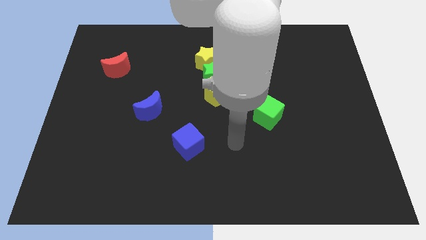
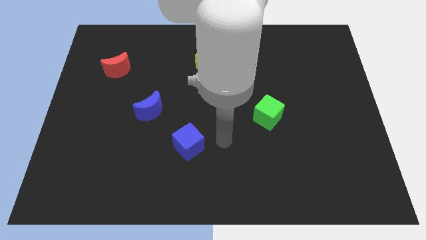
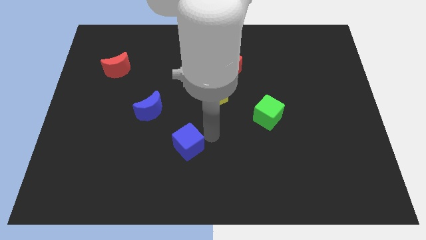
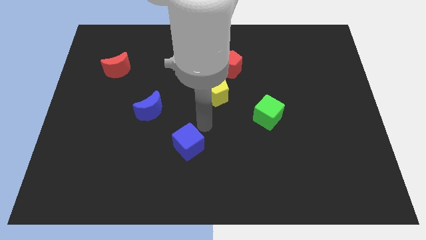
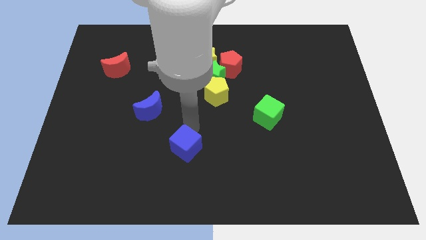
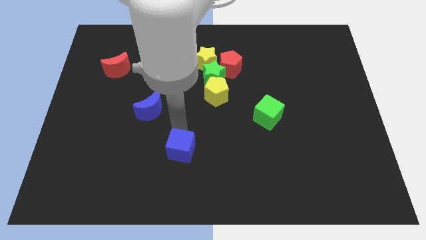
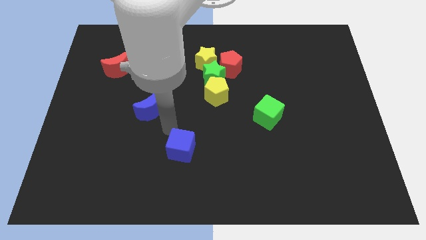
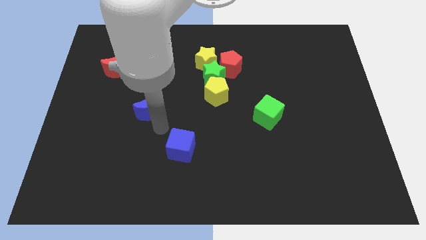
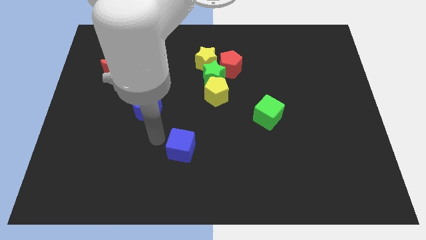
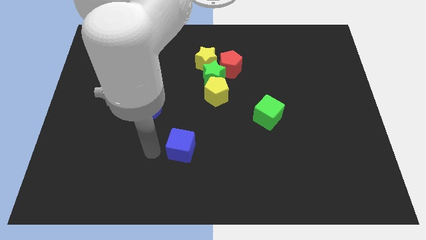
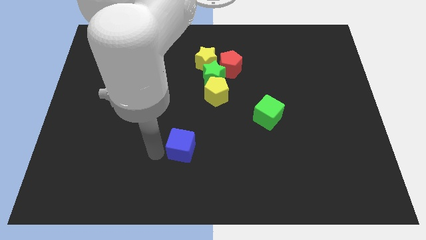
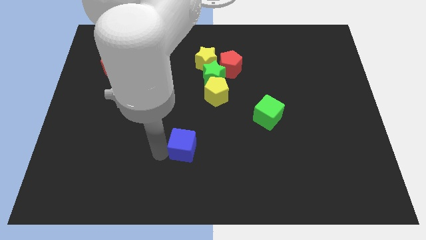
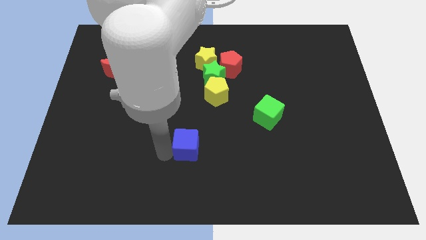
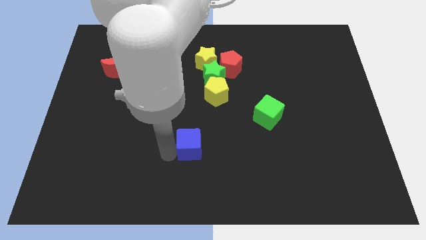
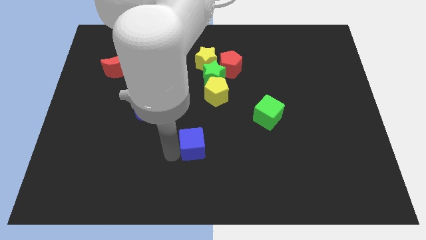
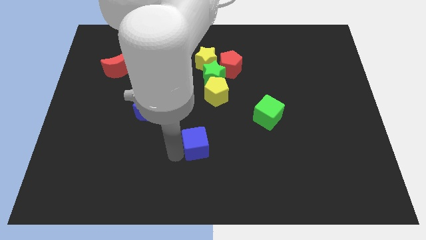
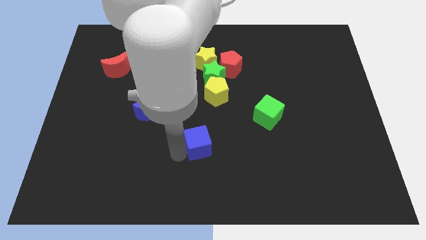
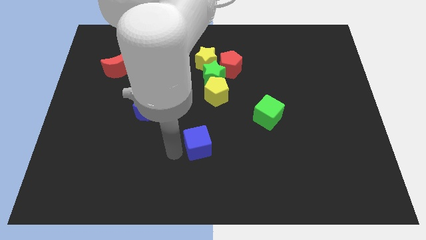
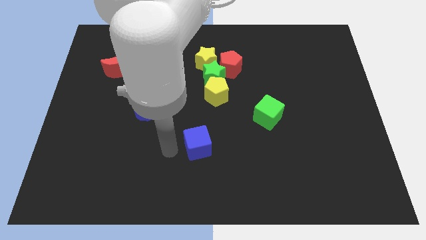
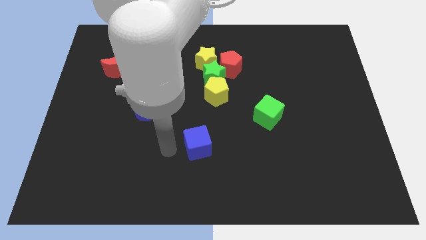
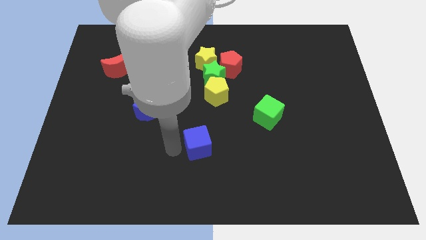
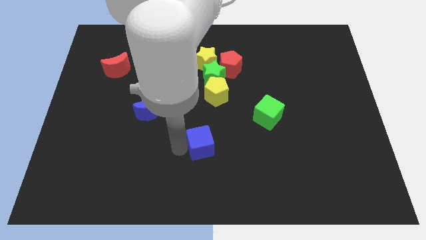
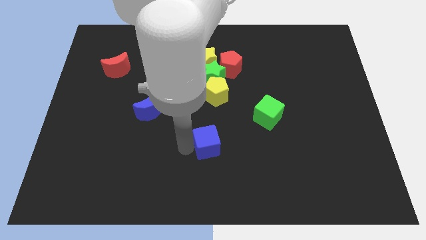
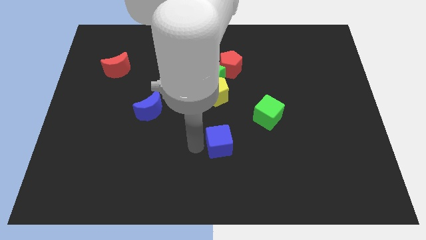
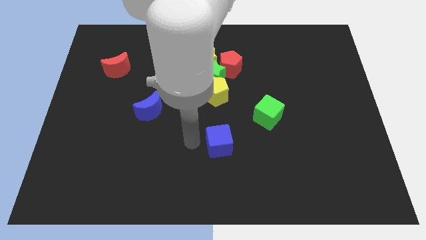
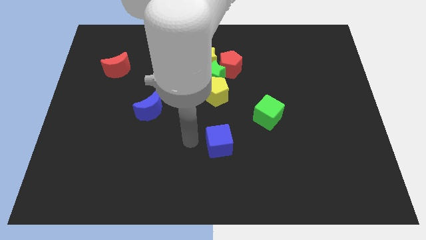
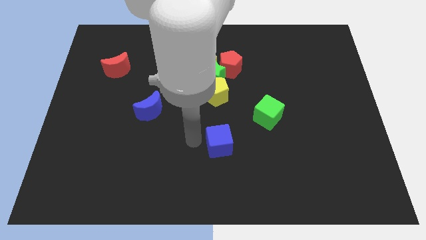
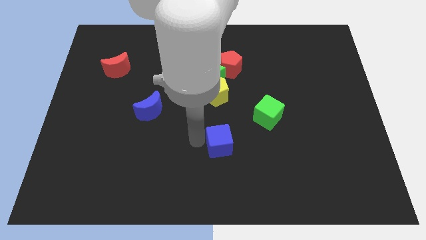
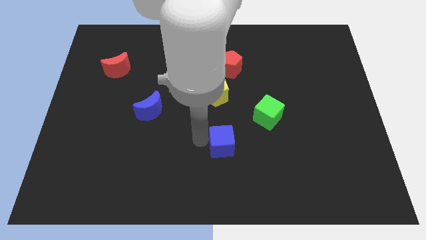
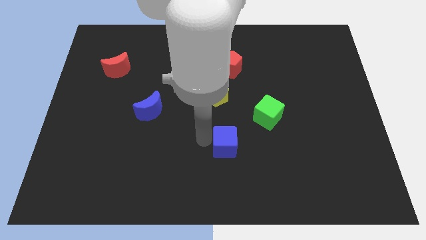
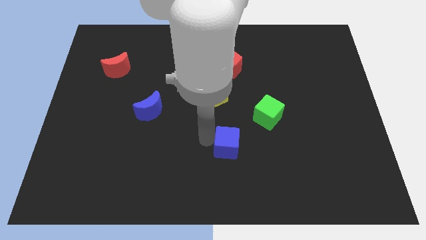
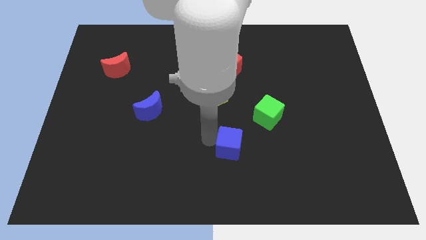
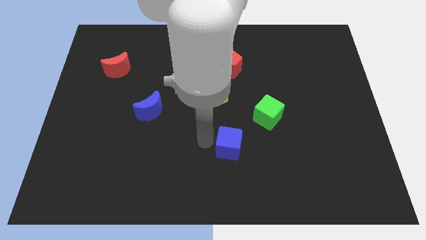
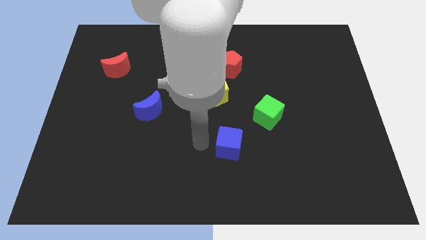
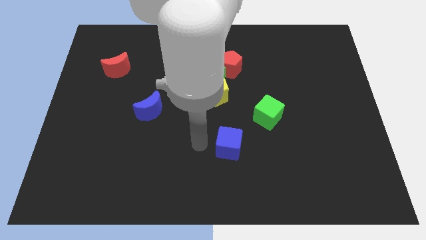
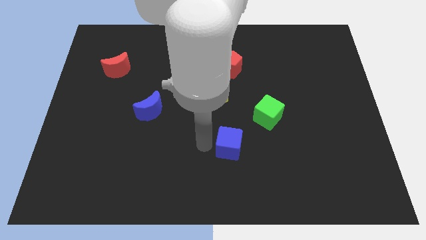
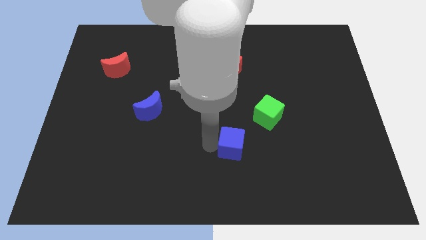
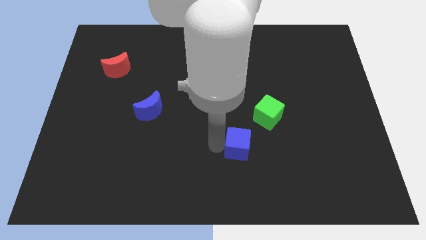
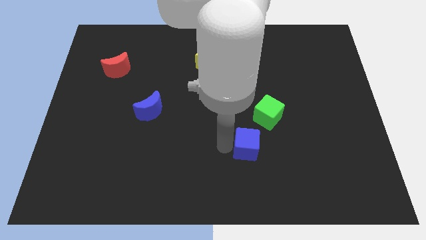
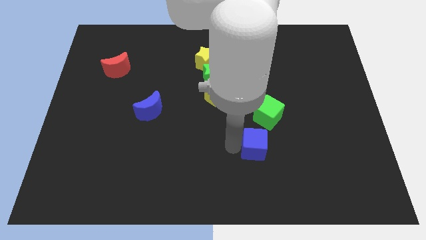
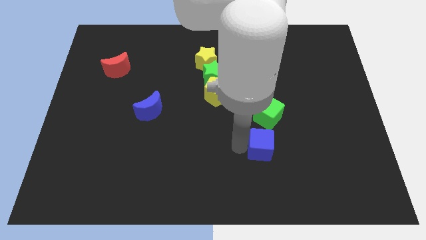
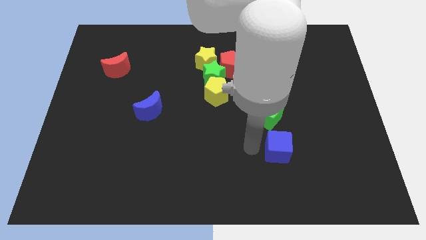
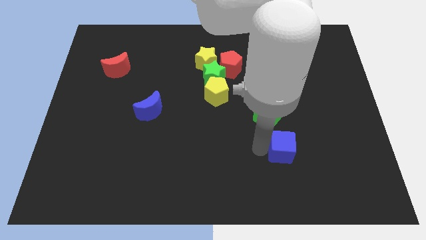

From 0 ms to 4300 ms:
push the blue cube to the right

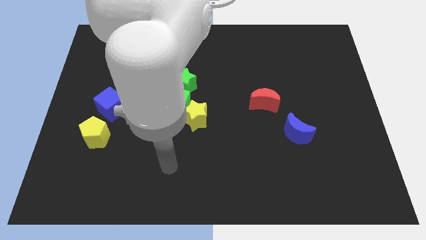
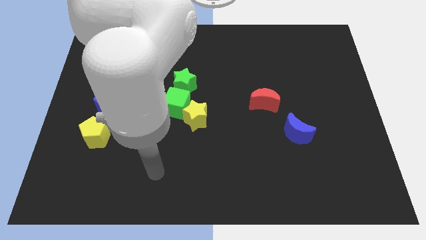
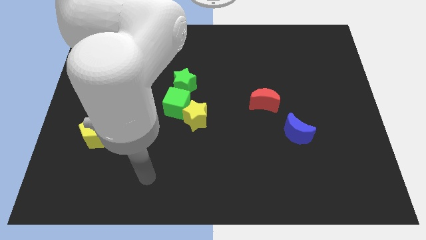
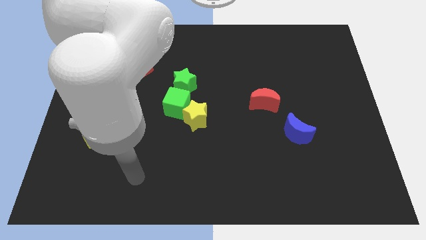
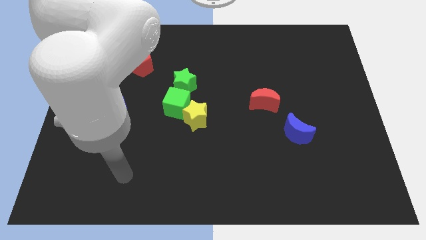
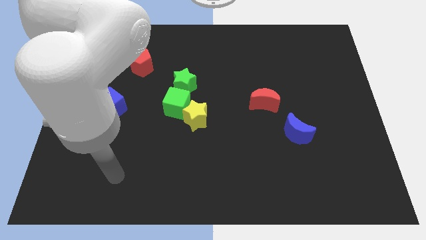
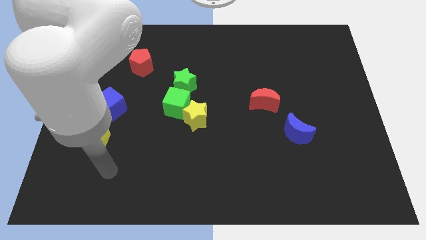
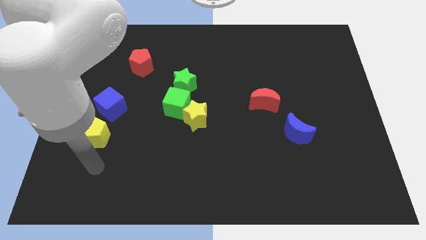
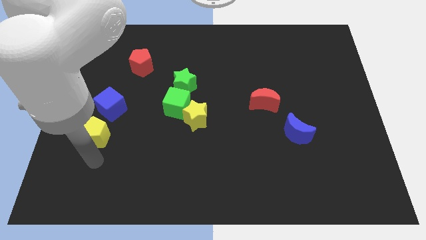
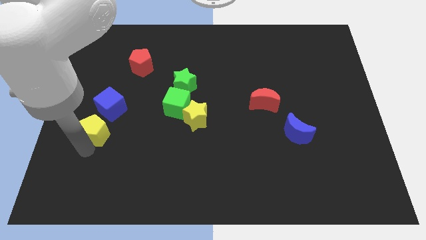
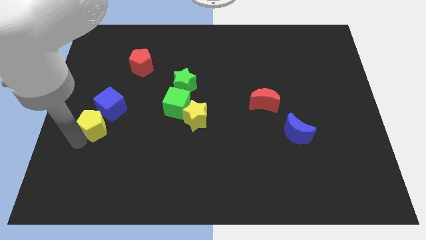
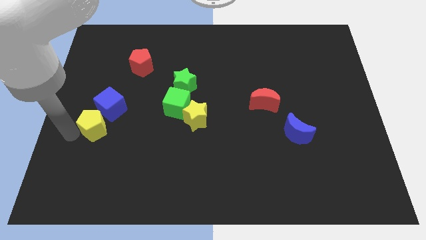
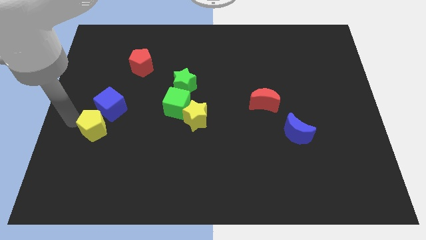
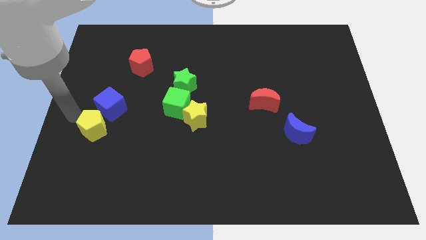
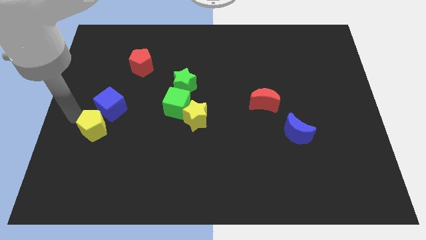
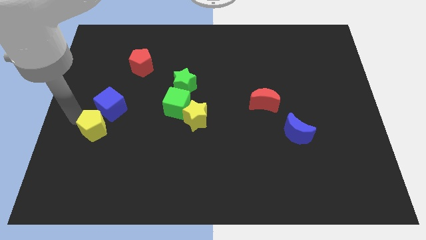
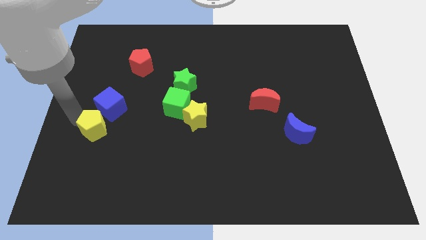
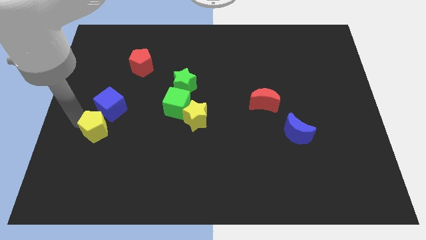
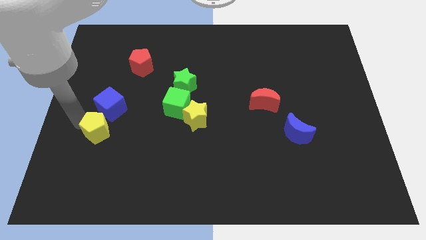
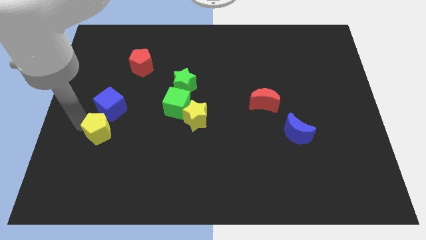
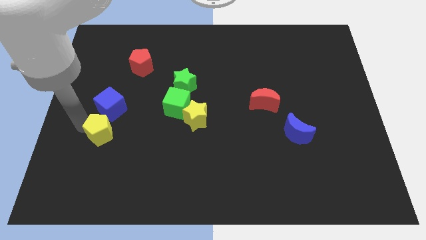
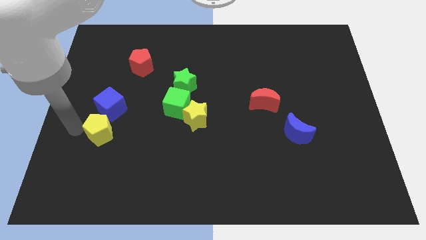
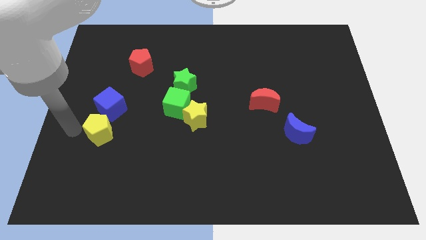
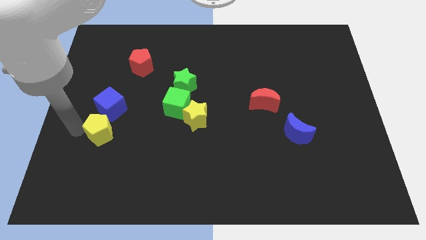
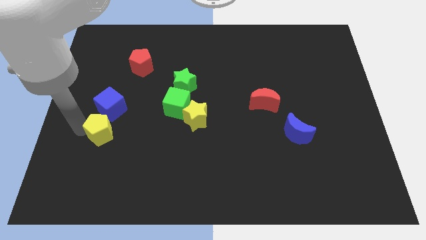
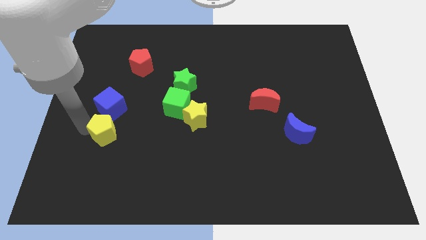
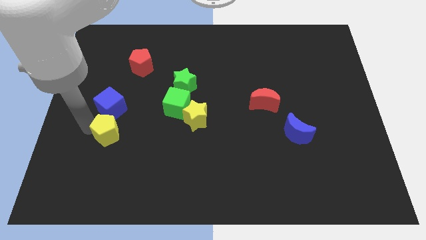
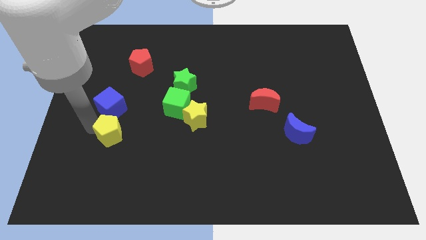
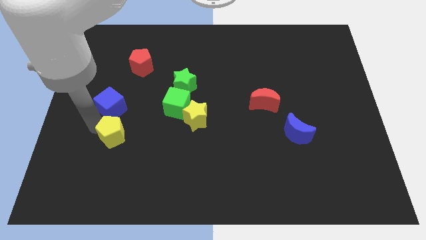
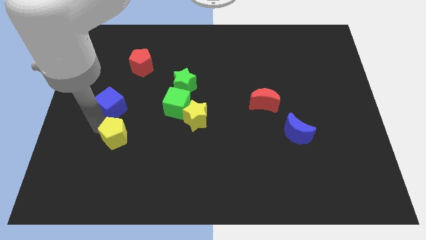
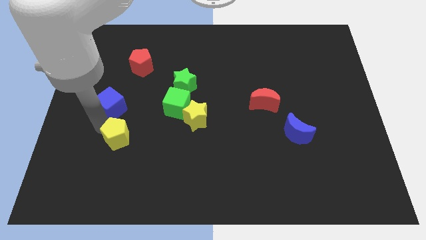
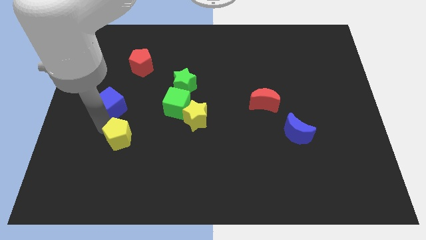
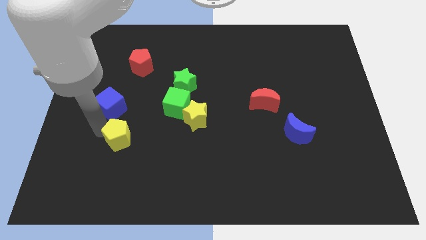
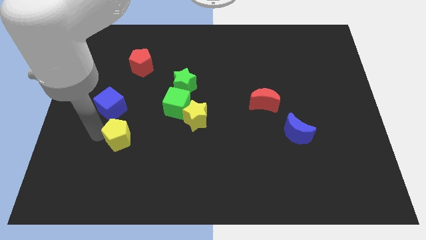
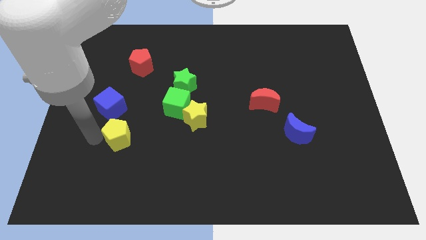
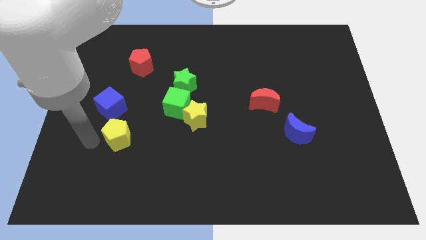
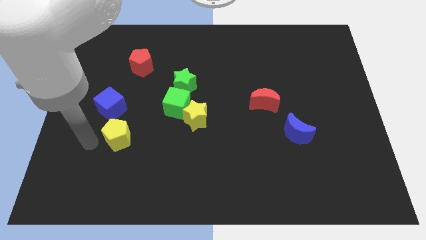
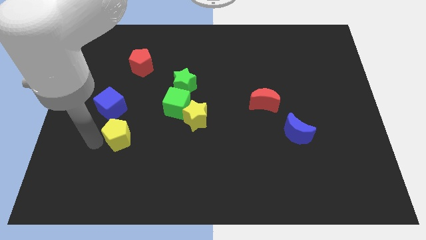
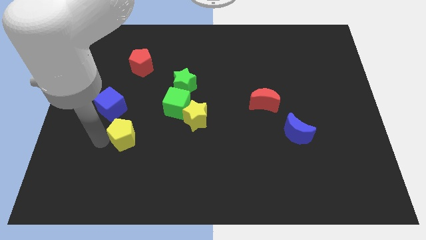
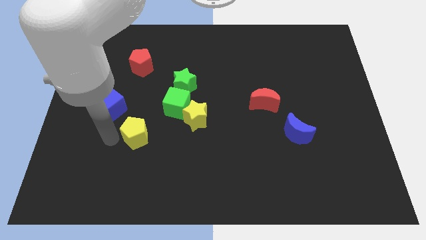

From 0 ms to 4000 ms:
push the yellow pentagon a little bit right
